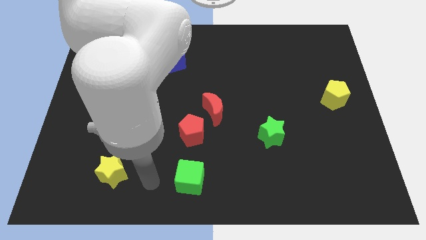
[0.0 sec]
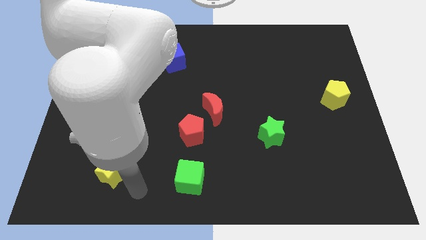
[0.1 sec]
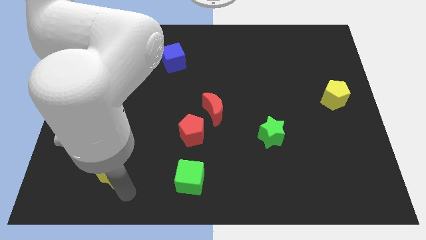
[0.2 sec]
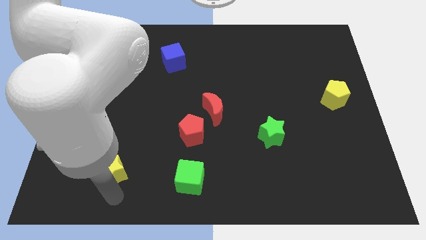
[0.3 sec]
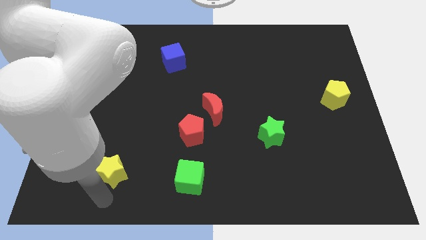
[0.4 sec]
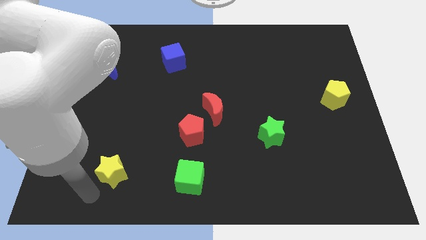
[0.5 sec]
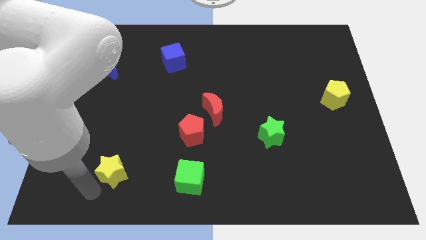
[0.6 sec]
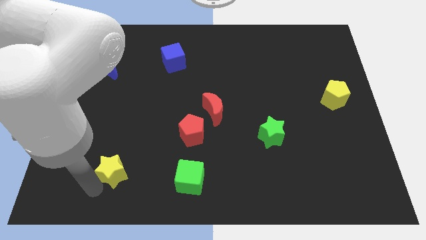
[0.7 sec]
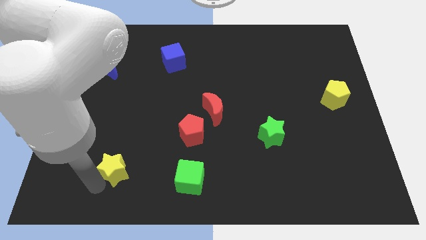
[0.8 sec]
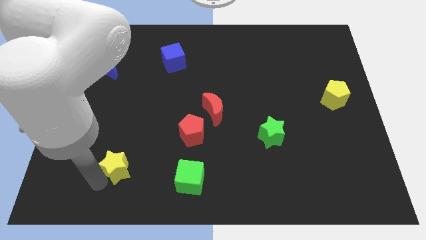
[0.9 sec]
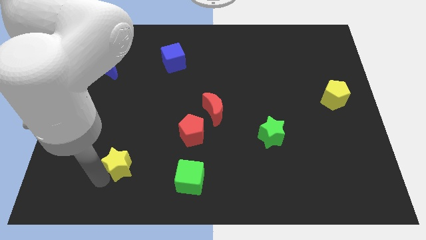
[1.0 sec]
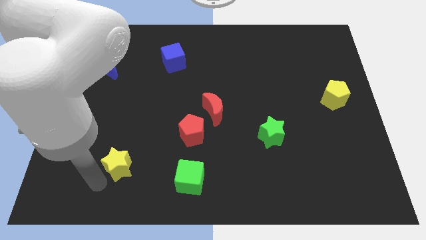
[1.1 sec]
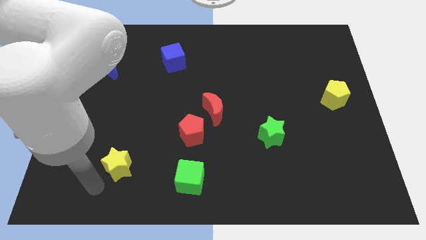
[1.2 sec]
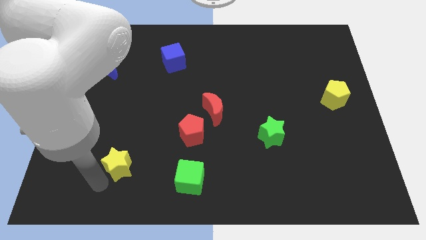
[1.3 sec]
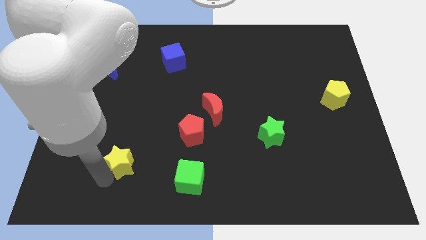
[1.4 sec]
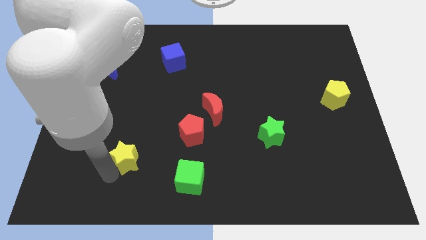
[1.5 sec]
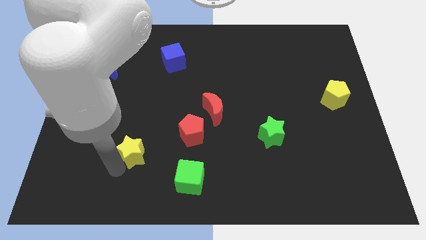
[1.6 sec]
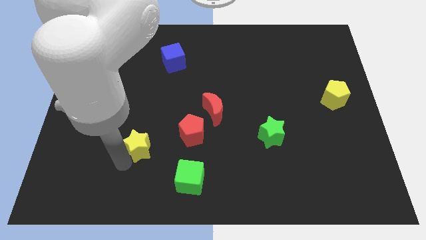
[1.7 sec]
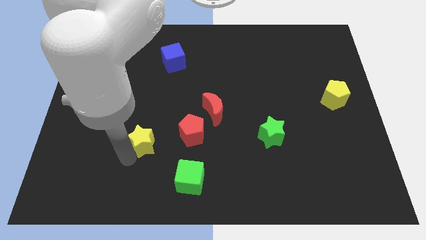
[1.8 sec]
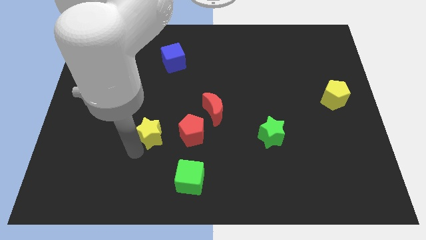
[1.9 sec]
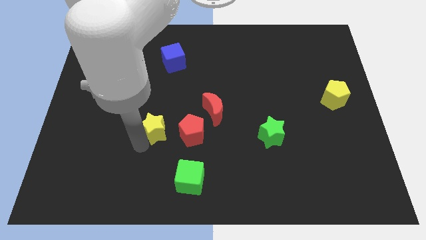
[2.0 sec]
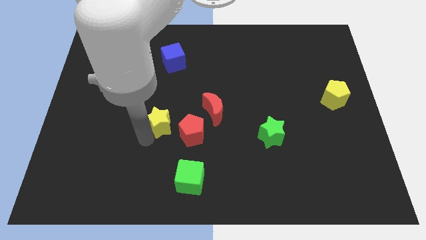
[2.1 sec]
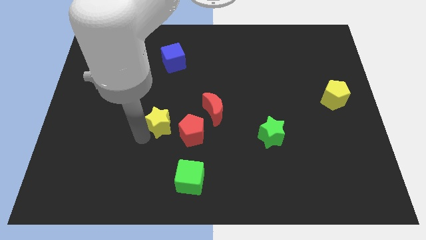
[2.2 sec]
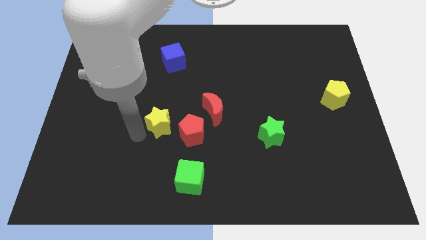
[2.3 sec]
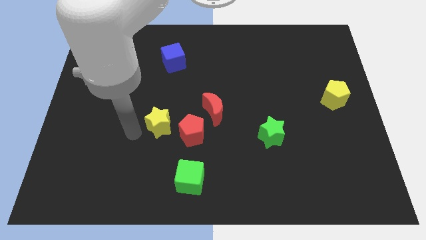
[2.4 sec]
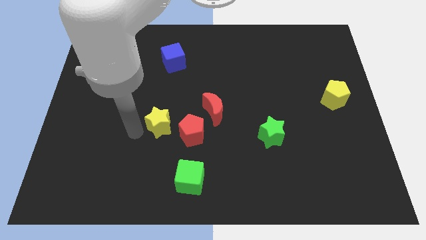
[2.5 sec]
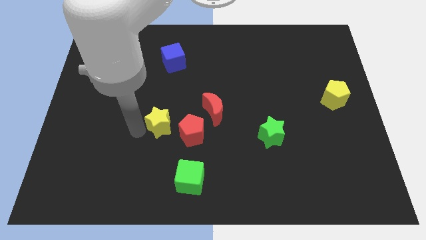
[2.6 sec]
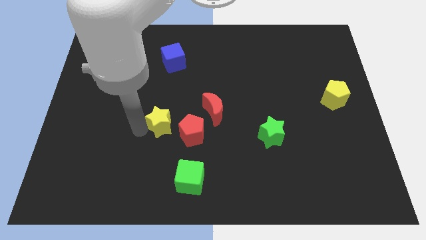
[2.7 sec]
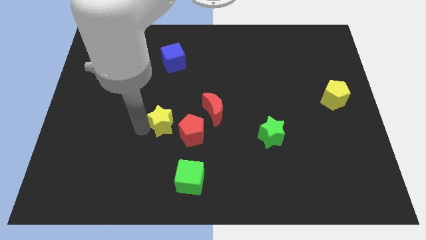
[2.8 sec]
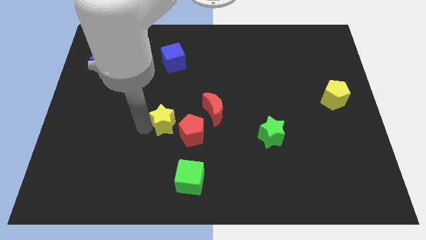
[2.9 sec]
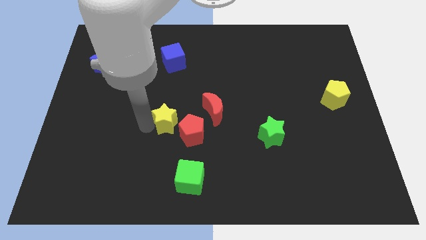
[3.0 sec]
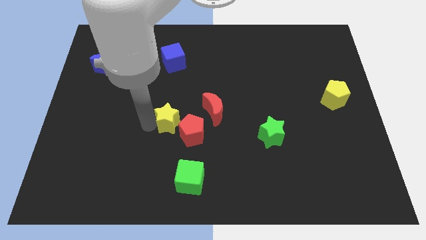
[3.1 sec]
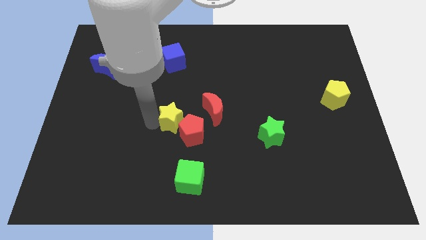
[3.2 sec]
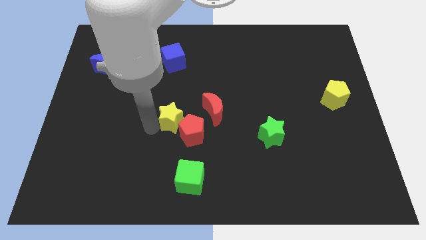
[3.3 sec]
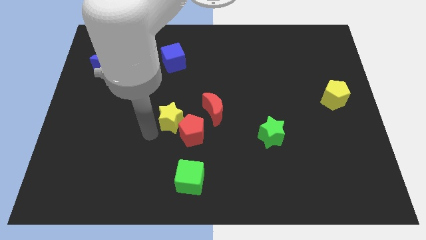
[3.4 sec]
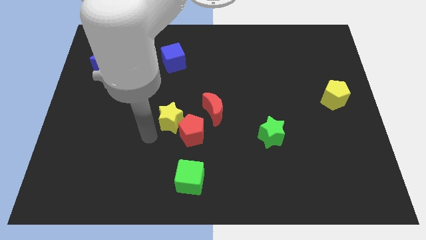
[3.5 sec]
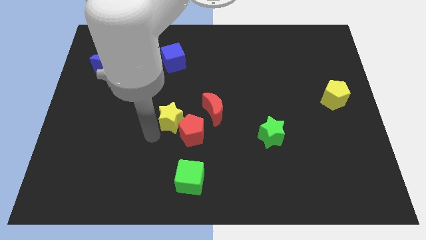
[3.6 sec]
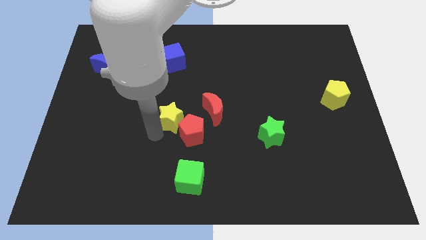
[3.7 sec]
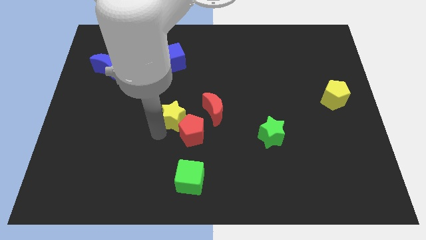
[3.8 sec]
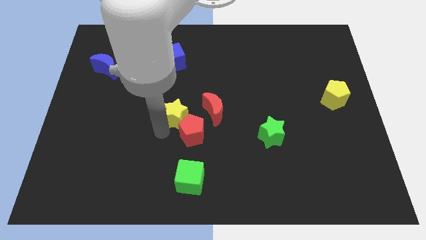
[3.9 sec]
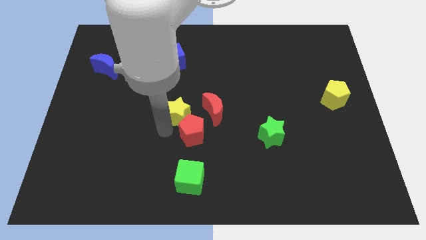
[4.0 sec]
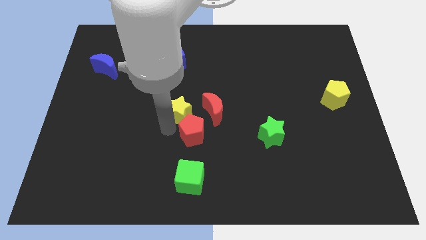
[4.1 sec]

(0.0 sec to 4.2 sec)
push the yellow star upwards and to the right

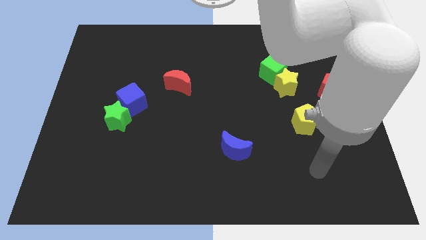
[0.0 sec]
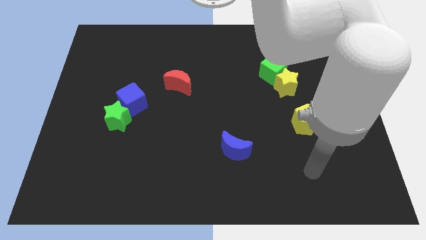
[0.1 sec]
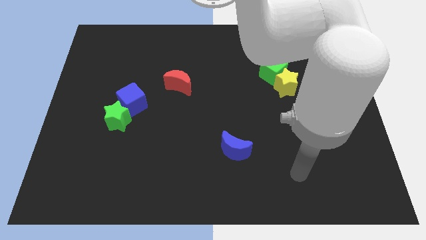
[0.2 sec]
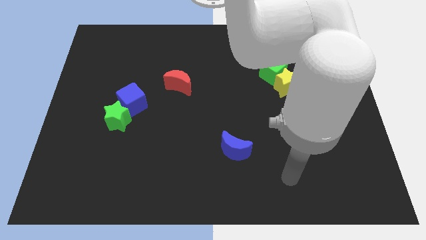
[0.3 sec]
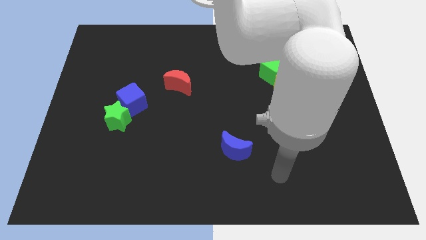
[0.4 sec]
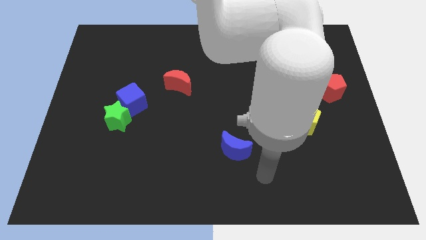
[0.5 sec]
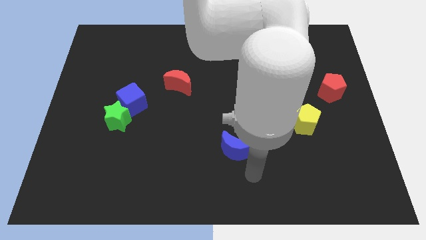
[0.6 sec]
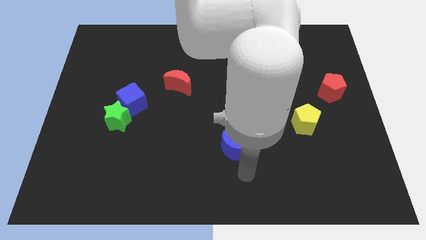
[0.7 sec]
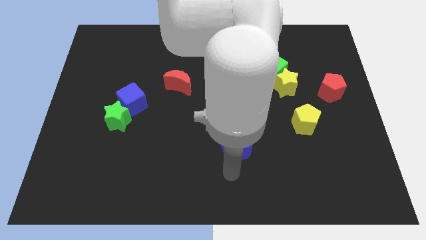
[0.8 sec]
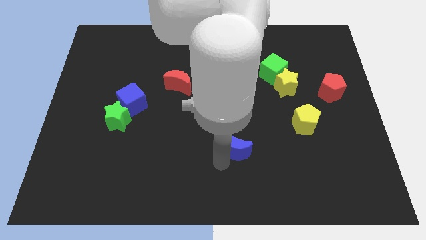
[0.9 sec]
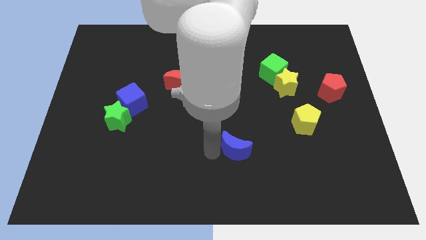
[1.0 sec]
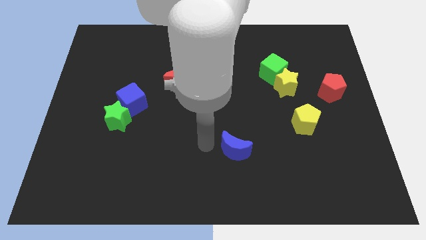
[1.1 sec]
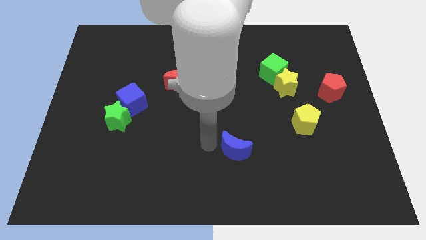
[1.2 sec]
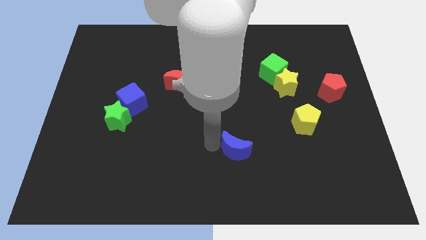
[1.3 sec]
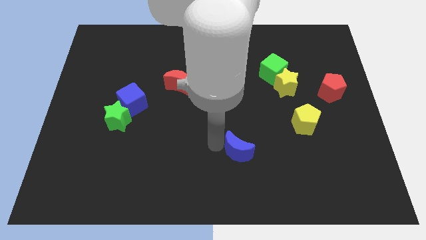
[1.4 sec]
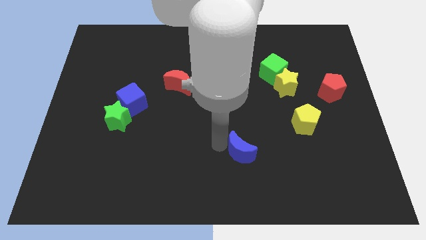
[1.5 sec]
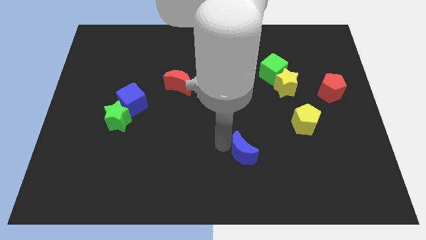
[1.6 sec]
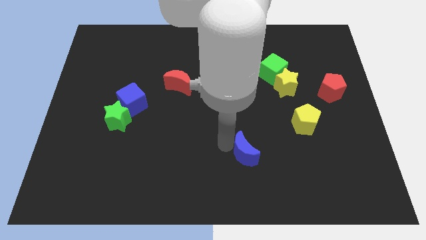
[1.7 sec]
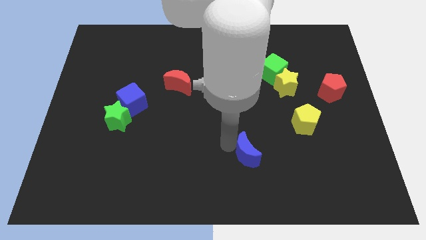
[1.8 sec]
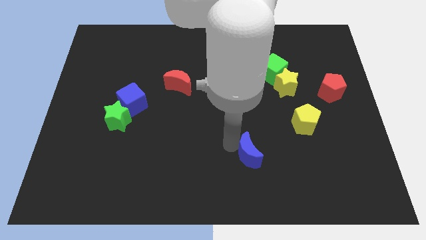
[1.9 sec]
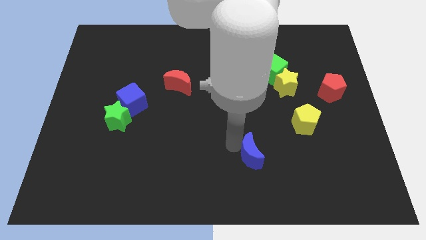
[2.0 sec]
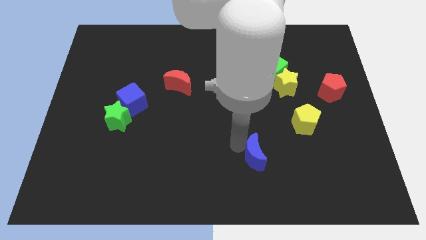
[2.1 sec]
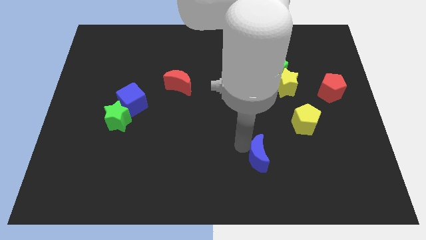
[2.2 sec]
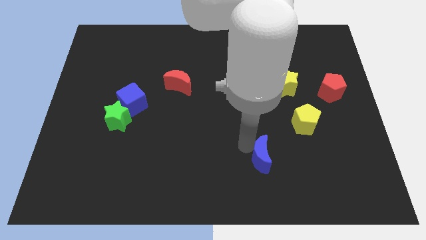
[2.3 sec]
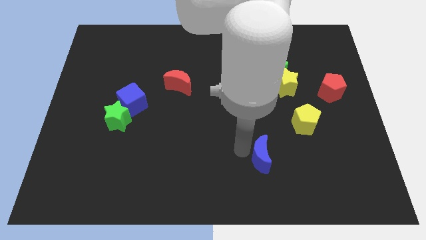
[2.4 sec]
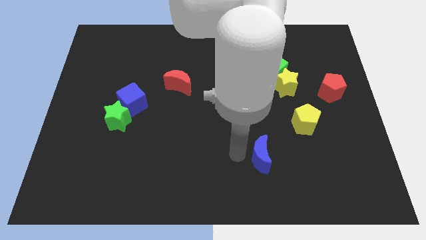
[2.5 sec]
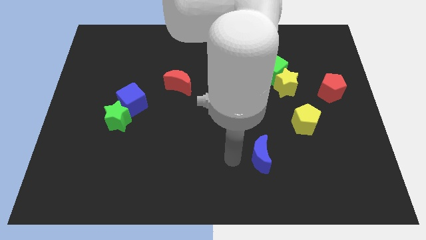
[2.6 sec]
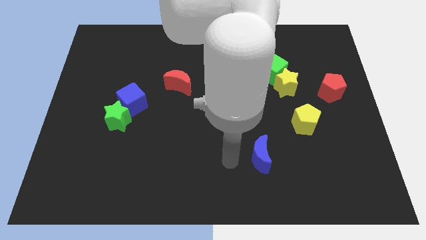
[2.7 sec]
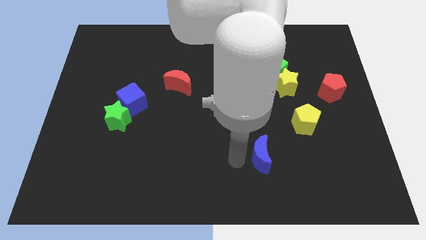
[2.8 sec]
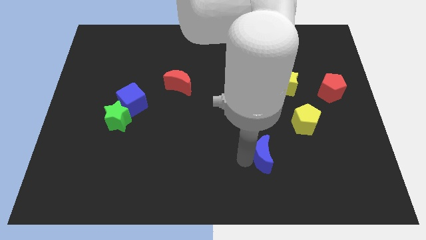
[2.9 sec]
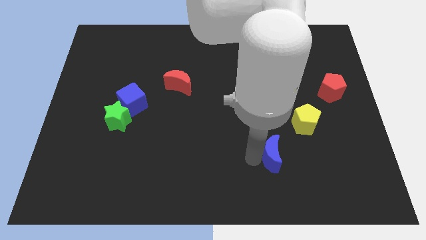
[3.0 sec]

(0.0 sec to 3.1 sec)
push the blue moon a bit right

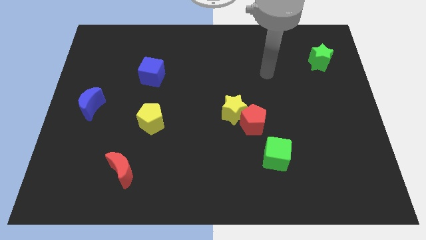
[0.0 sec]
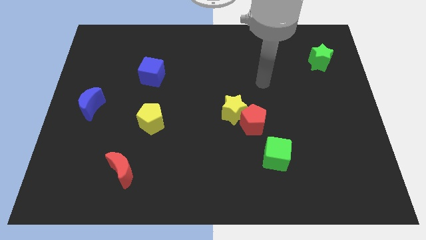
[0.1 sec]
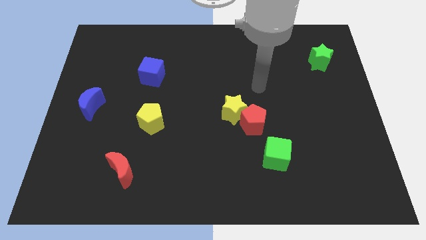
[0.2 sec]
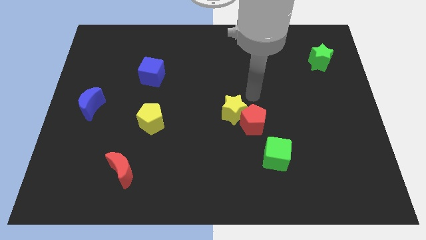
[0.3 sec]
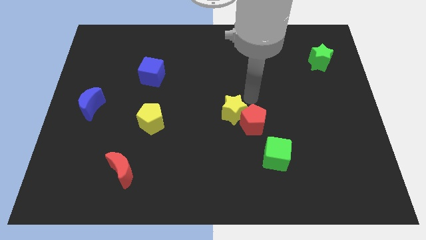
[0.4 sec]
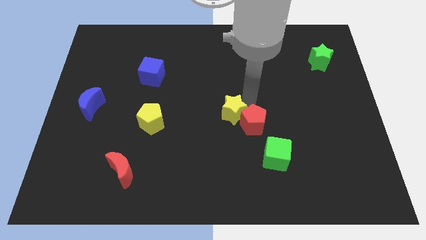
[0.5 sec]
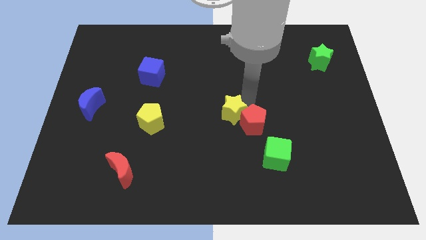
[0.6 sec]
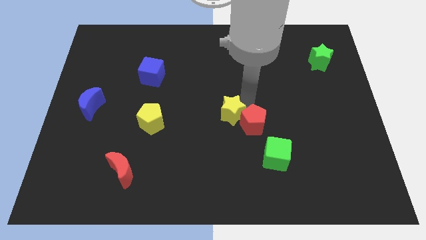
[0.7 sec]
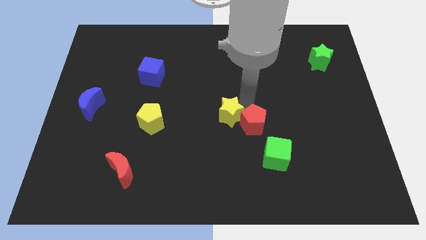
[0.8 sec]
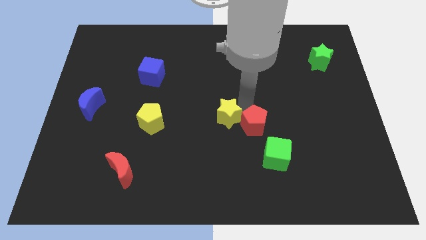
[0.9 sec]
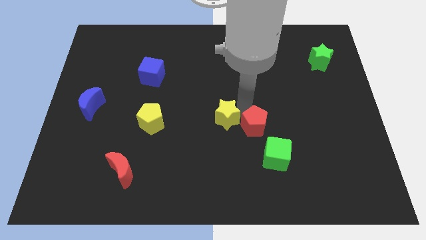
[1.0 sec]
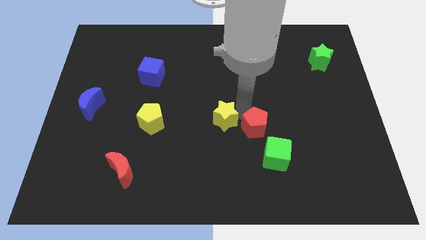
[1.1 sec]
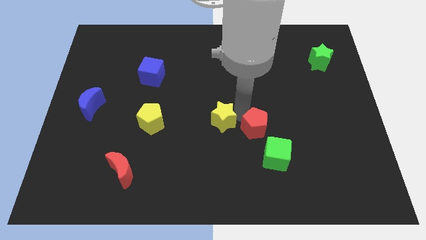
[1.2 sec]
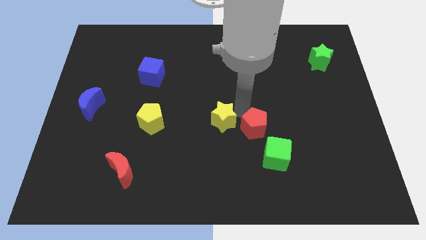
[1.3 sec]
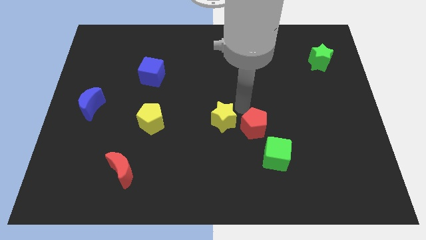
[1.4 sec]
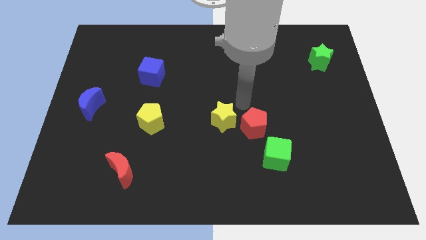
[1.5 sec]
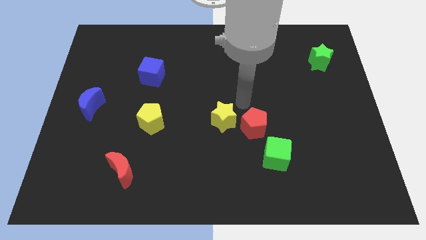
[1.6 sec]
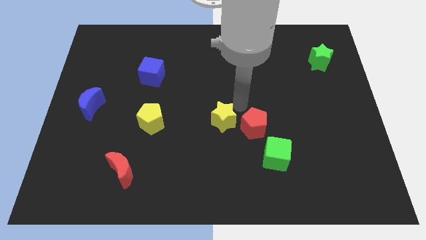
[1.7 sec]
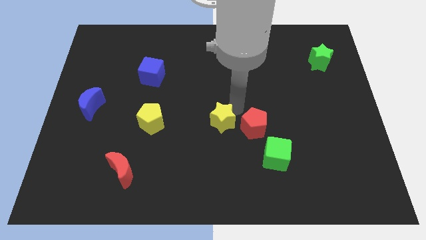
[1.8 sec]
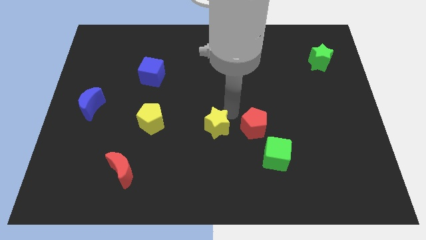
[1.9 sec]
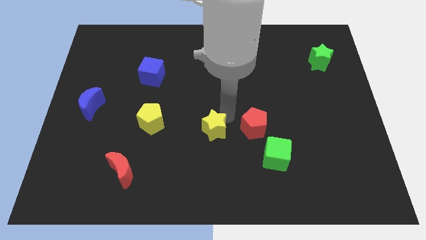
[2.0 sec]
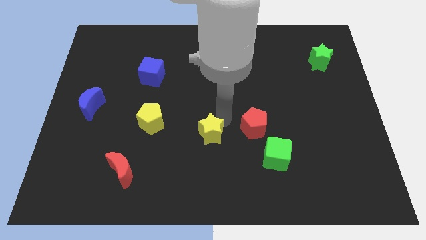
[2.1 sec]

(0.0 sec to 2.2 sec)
push the yellow star downwards and then to the left a bit
